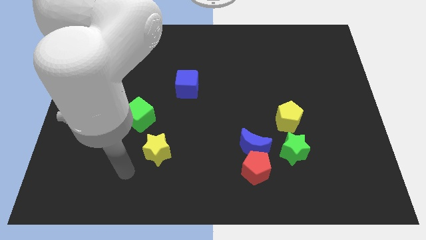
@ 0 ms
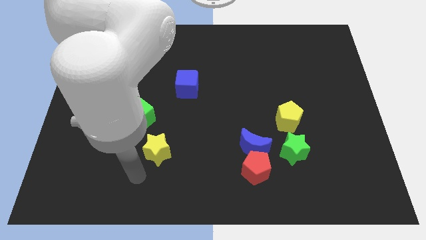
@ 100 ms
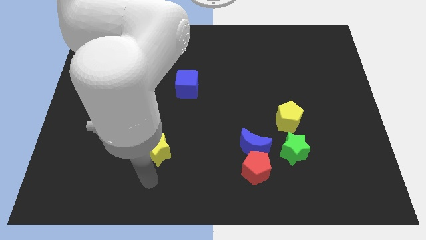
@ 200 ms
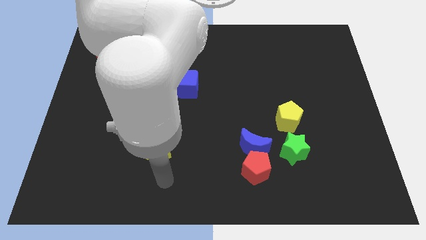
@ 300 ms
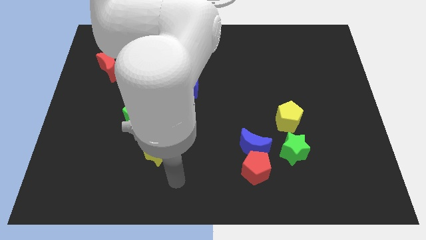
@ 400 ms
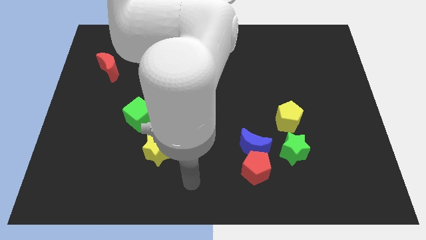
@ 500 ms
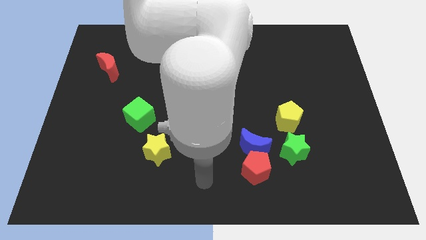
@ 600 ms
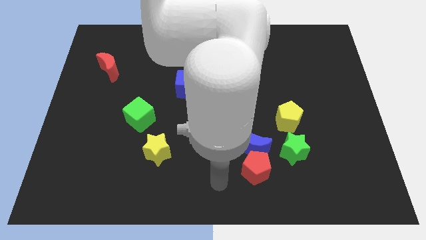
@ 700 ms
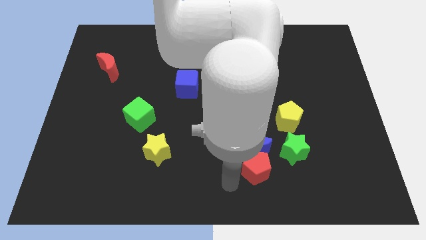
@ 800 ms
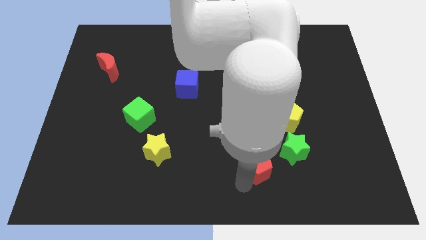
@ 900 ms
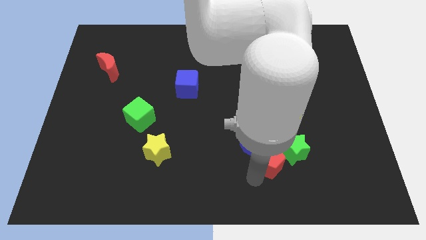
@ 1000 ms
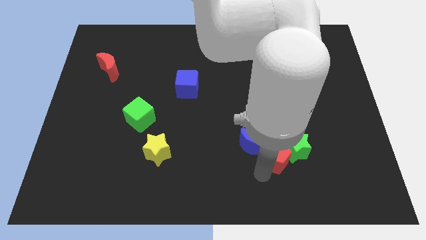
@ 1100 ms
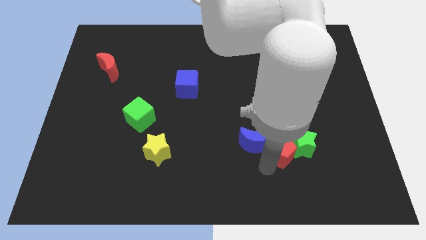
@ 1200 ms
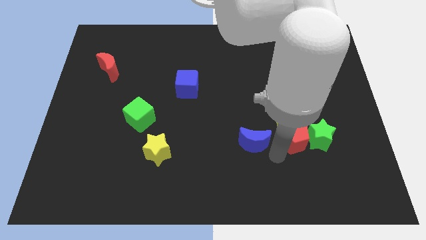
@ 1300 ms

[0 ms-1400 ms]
separate the blue moon from the red pentagon and green star

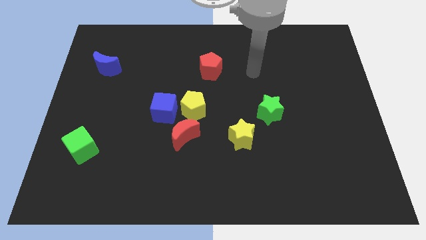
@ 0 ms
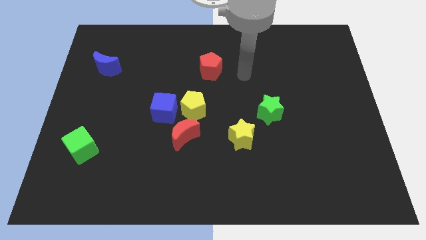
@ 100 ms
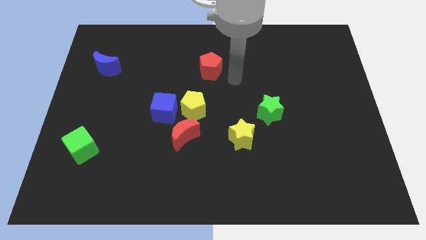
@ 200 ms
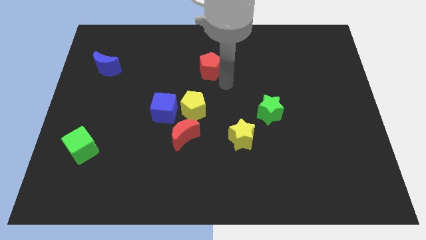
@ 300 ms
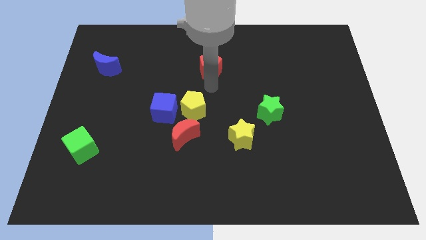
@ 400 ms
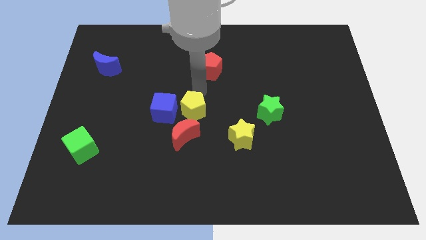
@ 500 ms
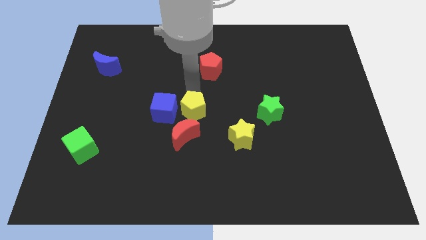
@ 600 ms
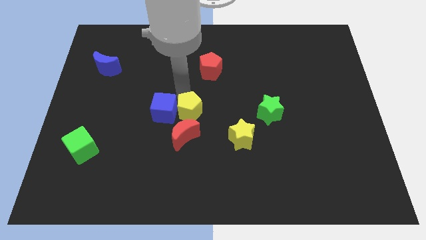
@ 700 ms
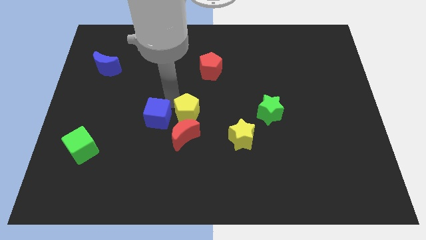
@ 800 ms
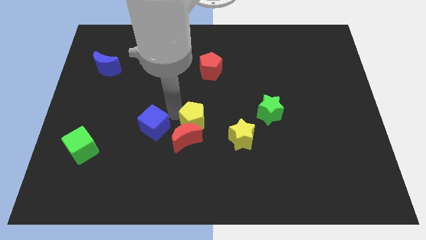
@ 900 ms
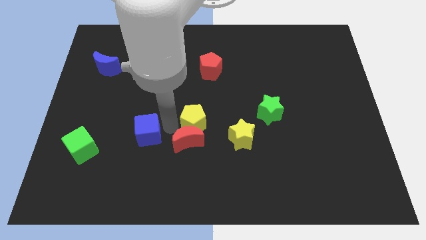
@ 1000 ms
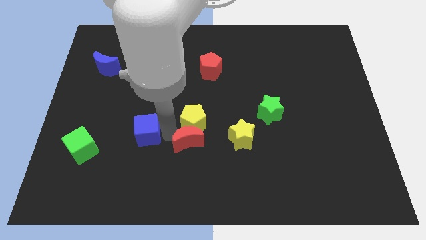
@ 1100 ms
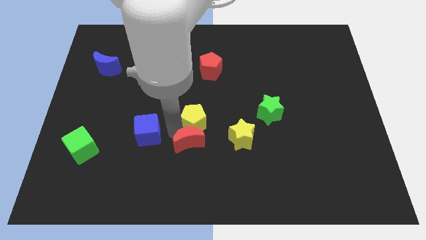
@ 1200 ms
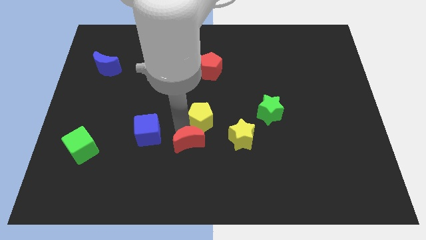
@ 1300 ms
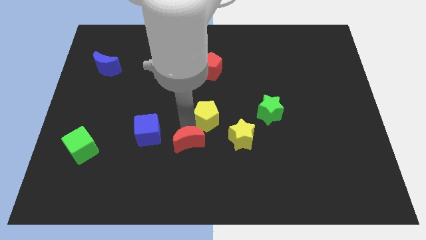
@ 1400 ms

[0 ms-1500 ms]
pull the yellow pentagon apart from the blue cube and red moon

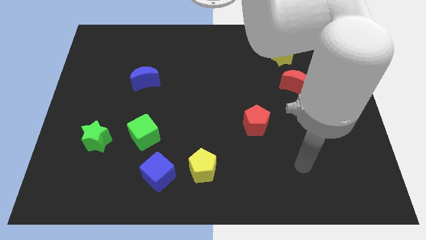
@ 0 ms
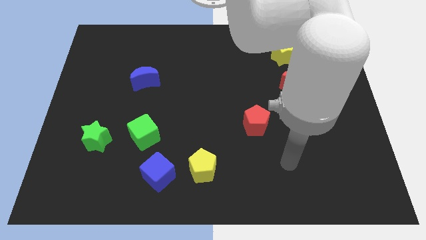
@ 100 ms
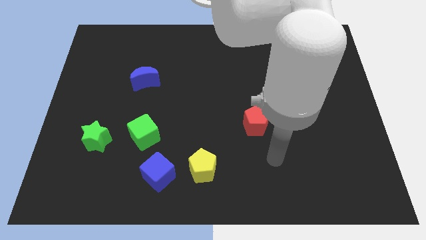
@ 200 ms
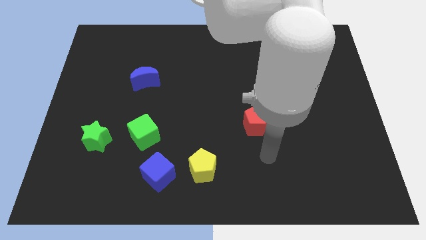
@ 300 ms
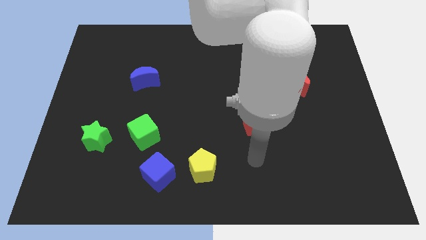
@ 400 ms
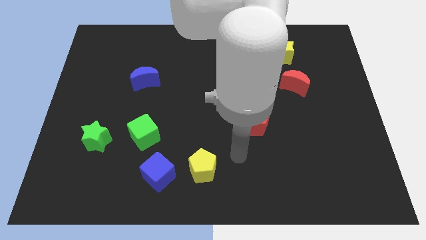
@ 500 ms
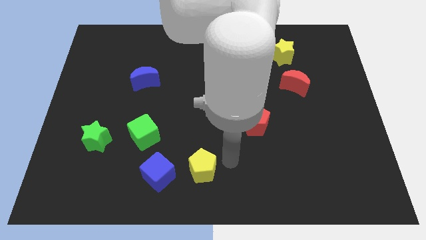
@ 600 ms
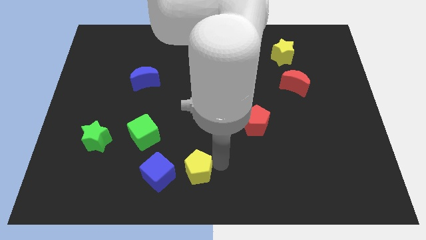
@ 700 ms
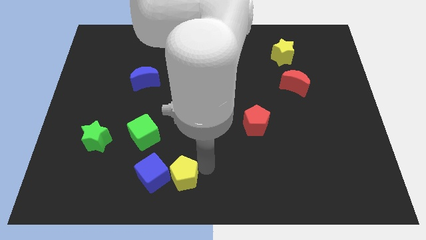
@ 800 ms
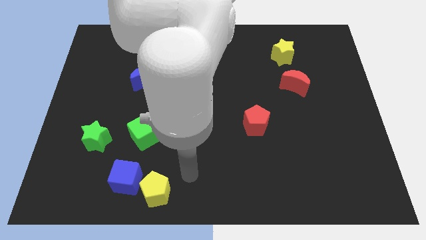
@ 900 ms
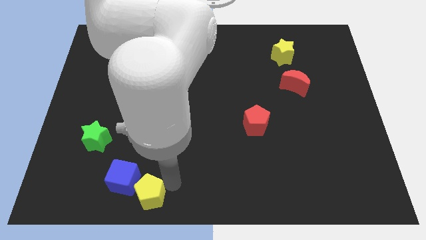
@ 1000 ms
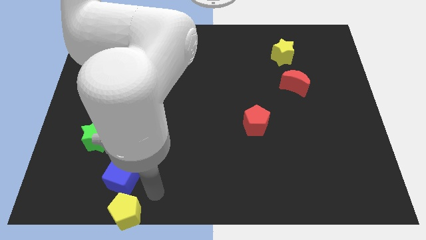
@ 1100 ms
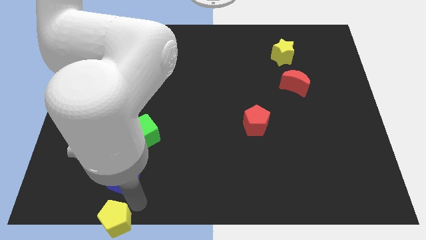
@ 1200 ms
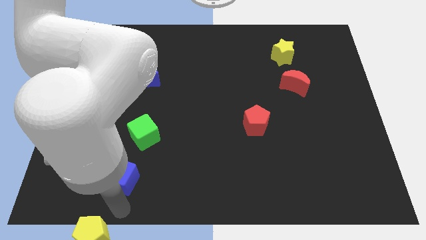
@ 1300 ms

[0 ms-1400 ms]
move the blue cube away from the yellow pentagon

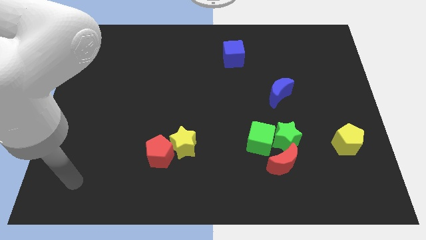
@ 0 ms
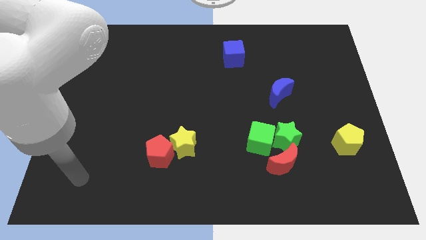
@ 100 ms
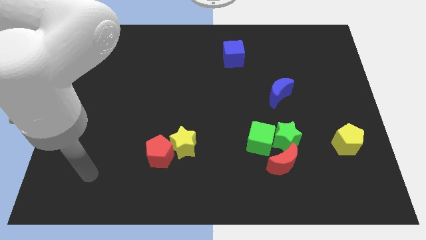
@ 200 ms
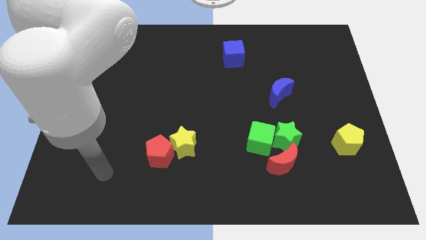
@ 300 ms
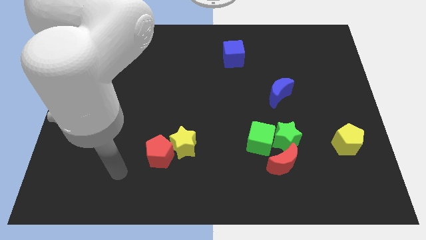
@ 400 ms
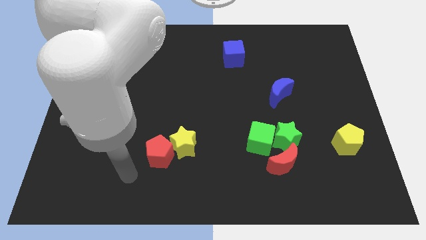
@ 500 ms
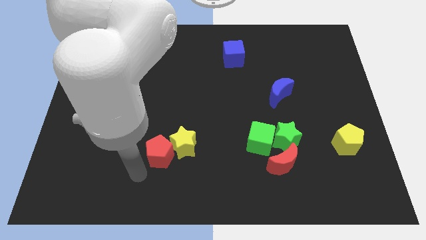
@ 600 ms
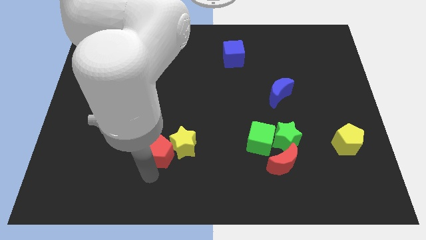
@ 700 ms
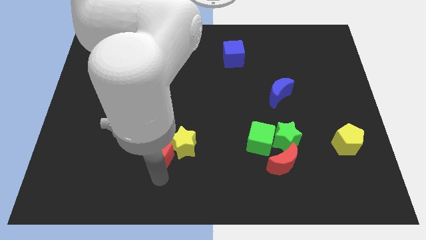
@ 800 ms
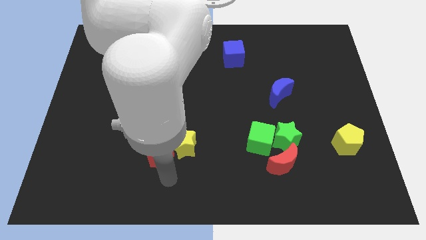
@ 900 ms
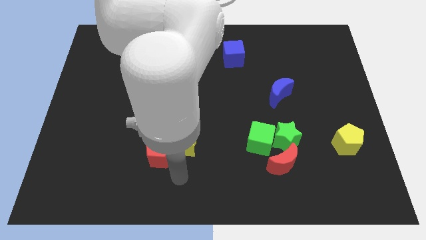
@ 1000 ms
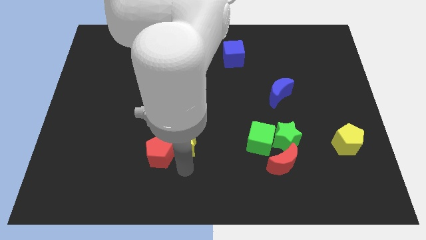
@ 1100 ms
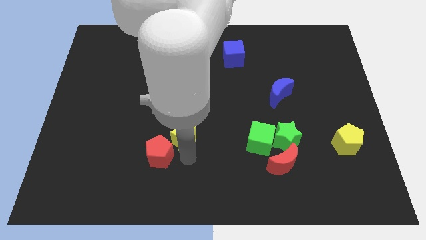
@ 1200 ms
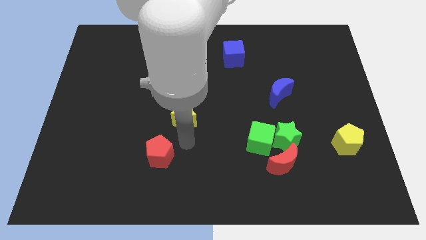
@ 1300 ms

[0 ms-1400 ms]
move the red pentagon away from the yellow star

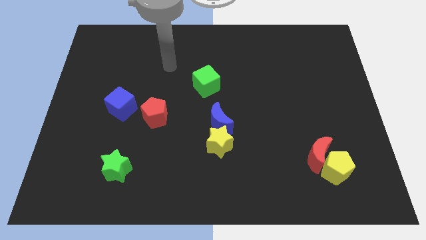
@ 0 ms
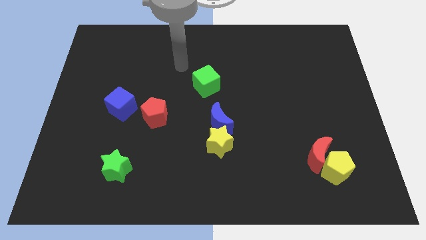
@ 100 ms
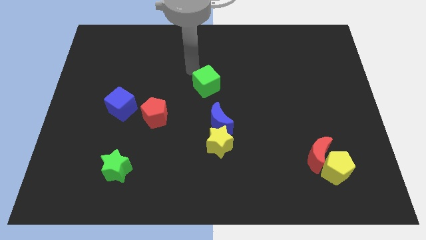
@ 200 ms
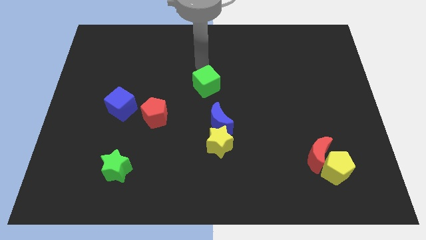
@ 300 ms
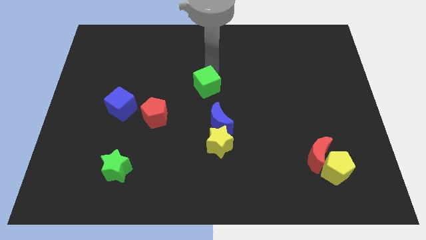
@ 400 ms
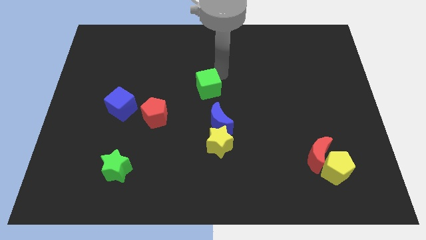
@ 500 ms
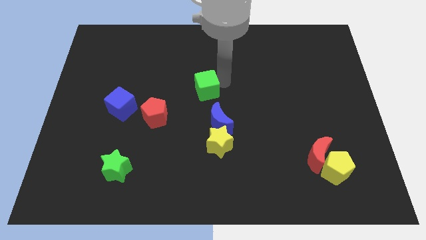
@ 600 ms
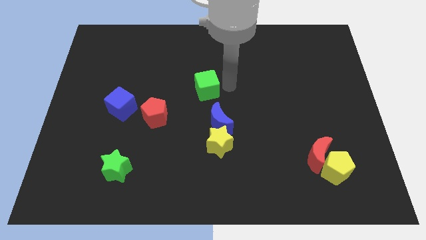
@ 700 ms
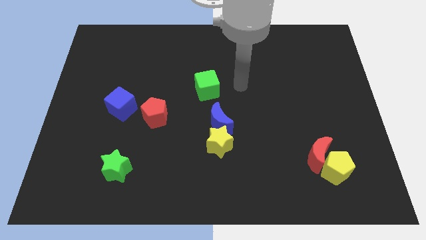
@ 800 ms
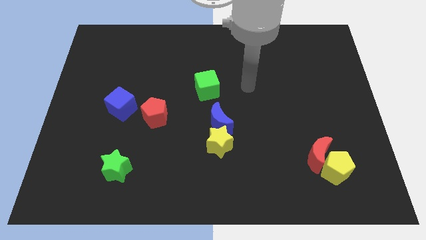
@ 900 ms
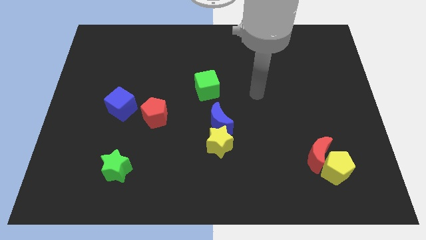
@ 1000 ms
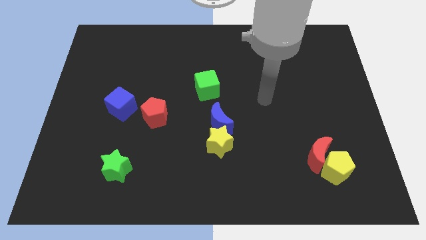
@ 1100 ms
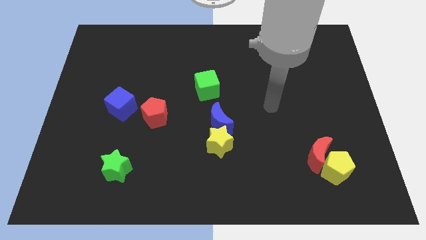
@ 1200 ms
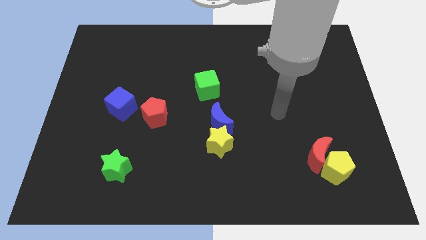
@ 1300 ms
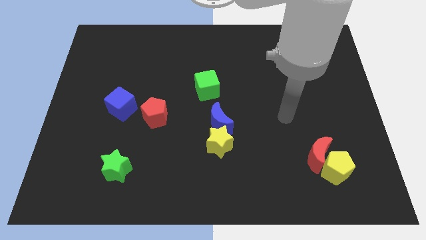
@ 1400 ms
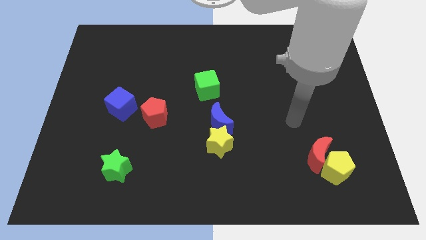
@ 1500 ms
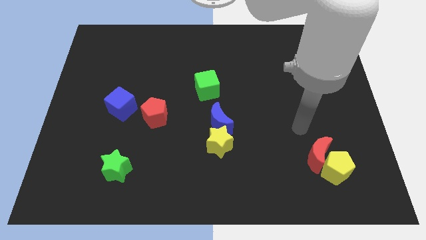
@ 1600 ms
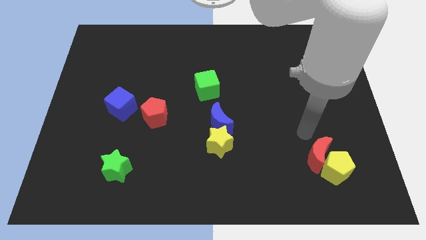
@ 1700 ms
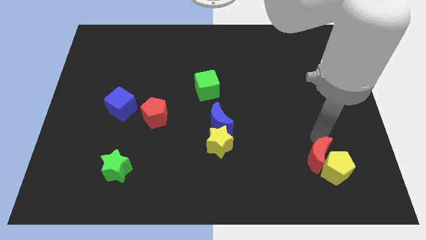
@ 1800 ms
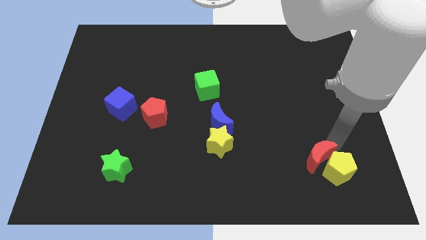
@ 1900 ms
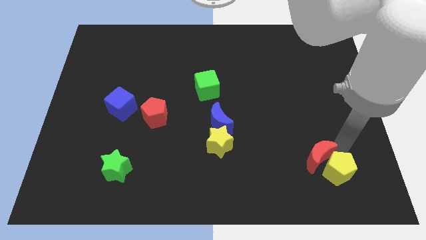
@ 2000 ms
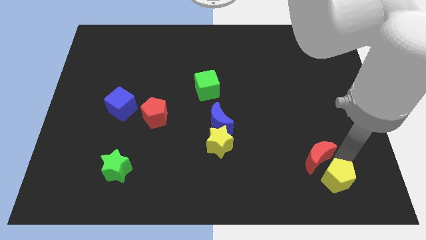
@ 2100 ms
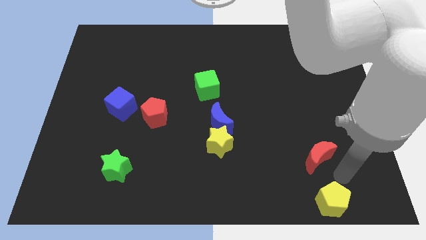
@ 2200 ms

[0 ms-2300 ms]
move the red moon away from the yellow pentagon

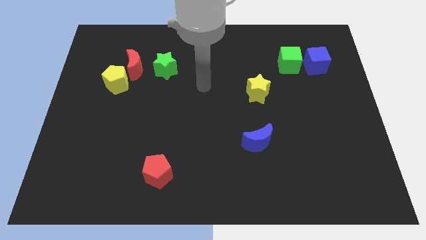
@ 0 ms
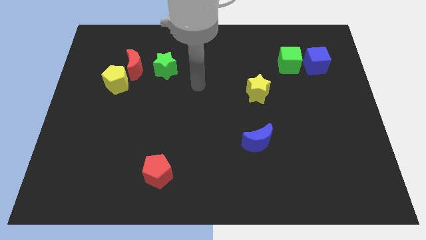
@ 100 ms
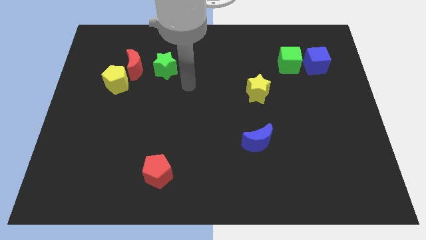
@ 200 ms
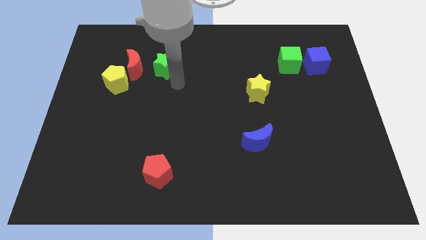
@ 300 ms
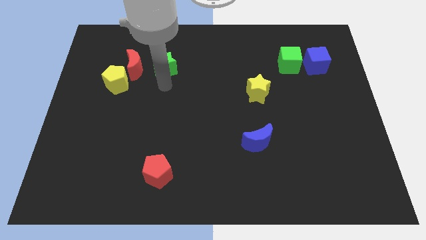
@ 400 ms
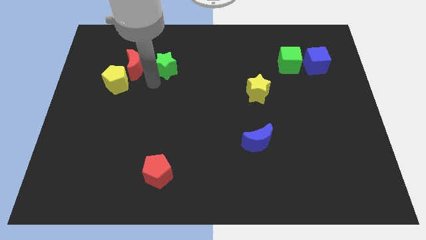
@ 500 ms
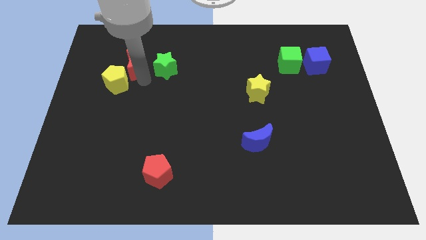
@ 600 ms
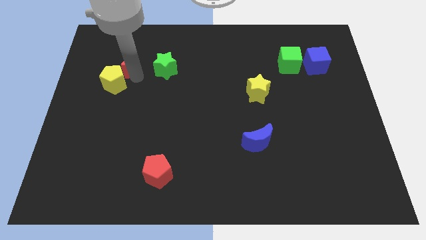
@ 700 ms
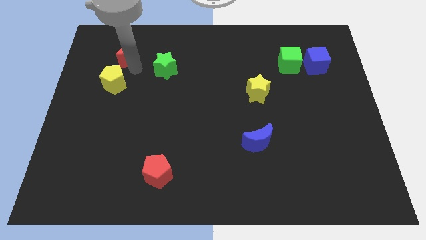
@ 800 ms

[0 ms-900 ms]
pull the yellow pentagon apart from the red moon

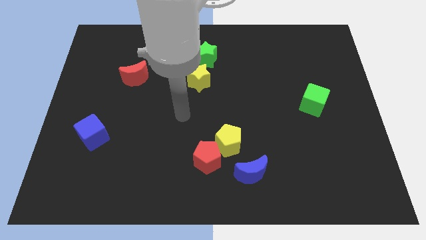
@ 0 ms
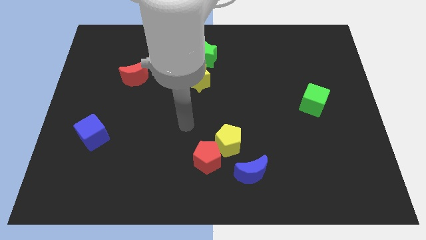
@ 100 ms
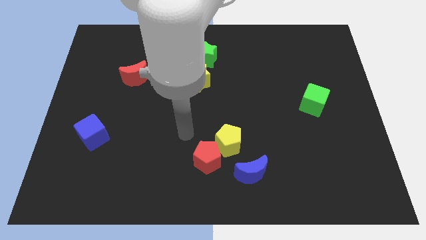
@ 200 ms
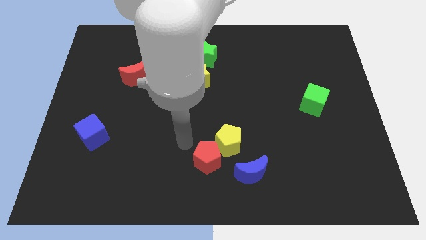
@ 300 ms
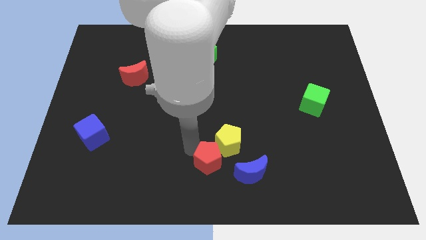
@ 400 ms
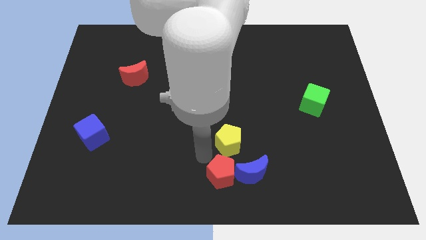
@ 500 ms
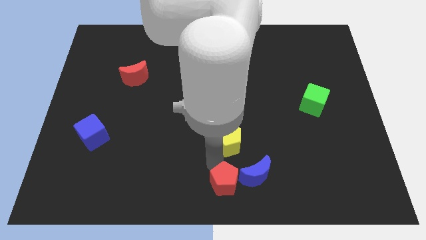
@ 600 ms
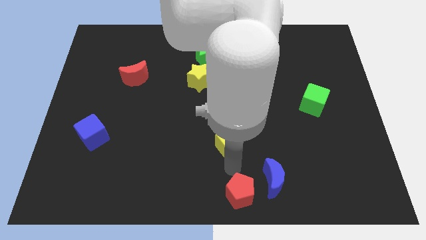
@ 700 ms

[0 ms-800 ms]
separate the yellow pentagon from the red pentagon and blue moon
